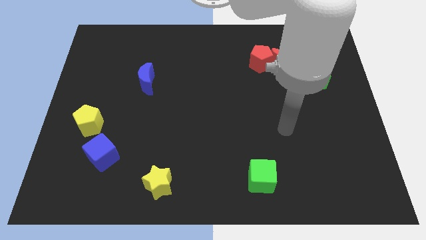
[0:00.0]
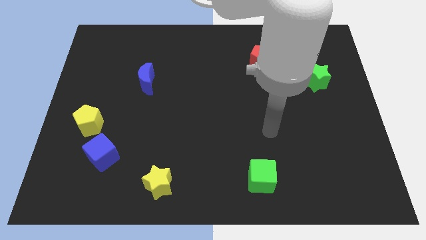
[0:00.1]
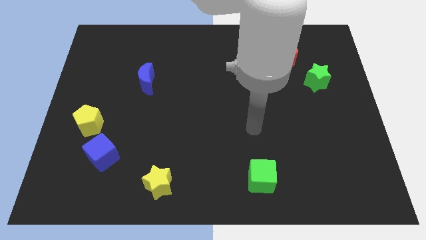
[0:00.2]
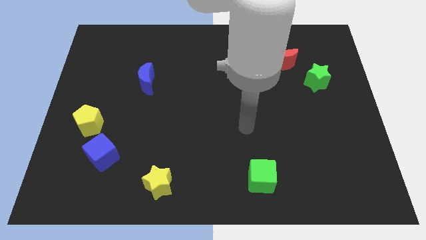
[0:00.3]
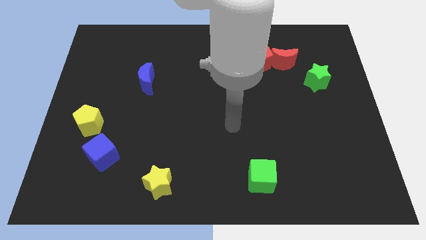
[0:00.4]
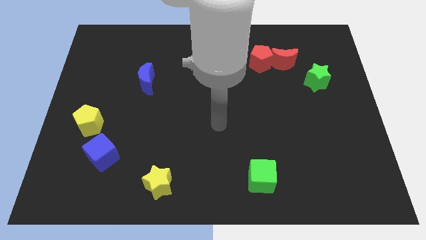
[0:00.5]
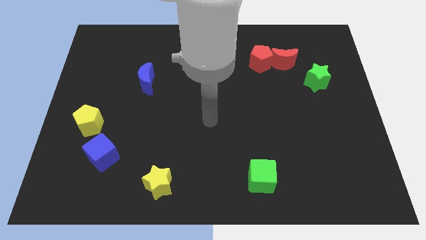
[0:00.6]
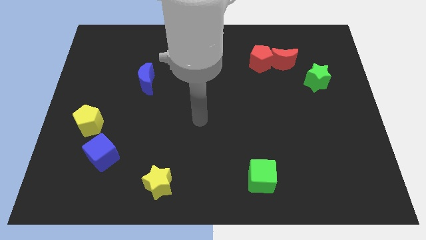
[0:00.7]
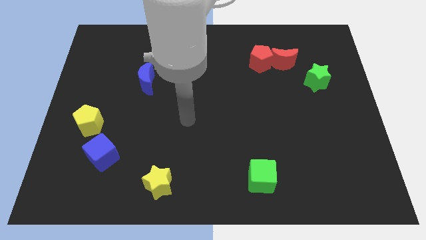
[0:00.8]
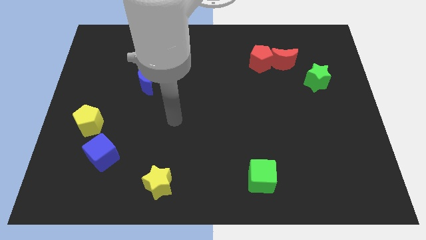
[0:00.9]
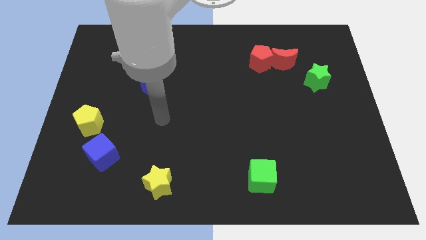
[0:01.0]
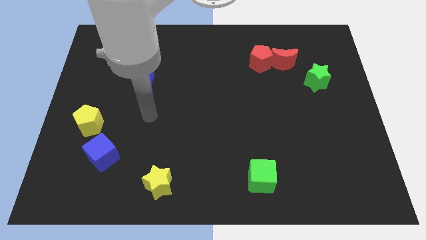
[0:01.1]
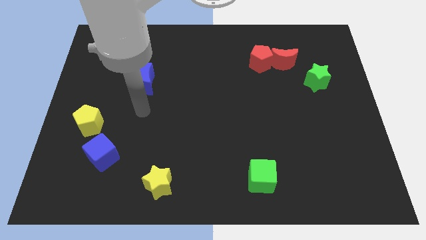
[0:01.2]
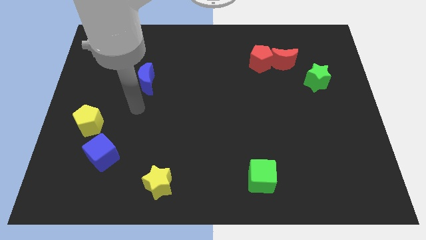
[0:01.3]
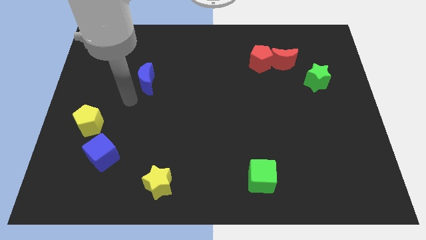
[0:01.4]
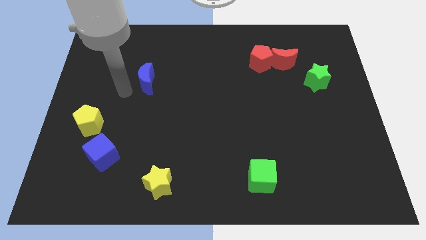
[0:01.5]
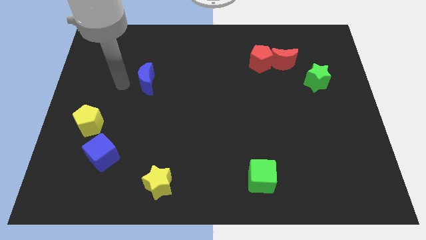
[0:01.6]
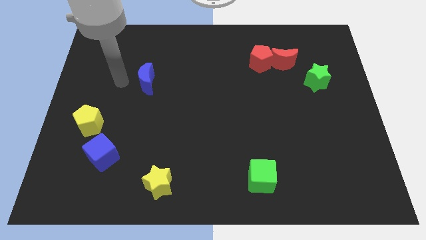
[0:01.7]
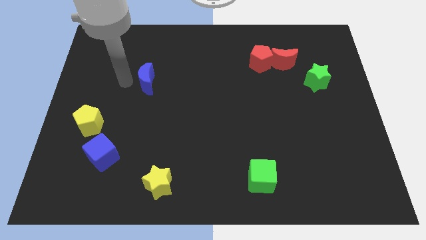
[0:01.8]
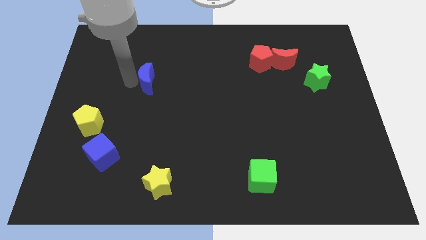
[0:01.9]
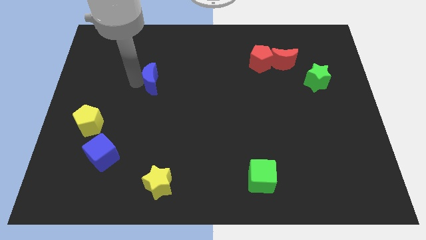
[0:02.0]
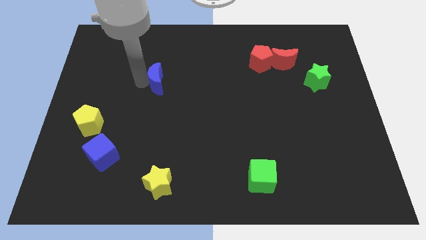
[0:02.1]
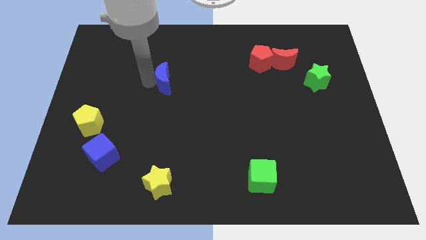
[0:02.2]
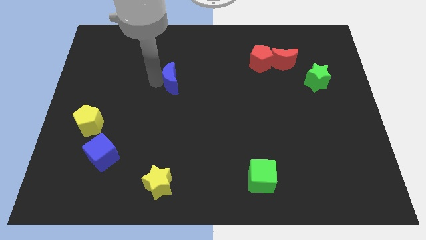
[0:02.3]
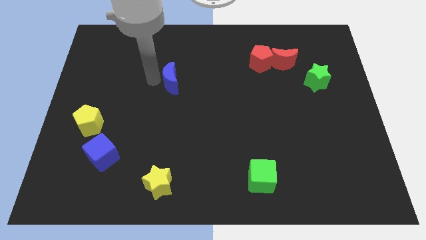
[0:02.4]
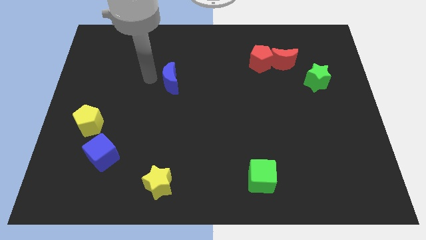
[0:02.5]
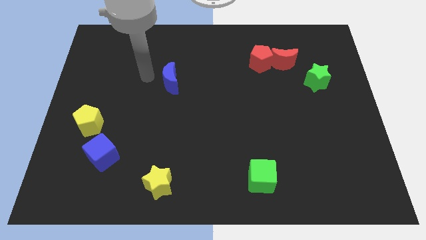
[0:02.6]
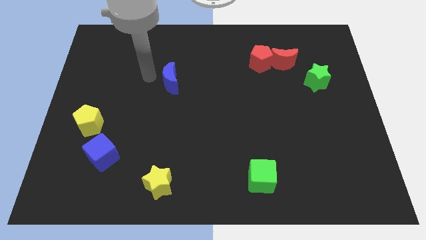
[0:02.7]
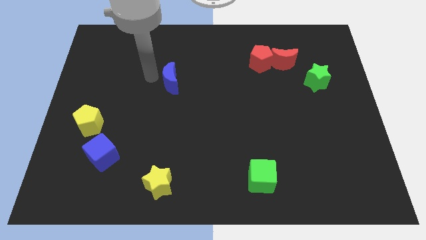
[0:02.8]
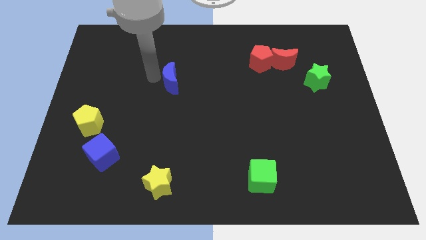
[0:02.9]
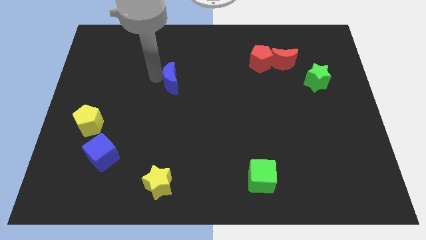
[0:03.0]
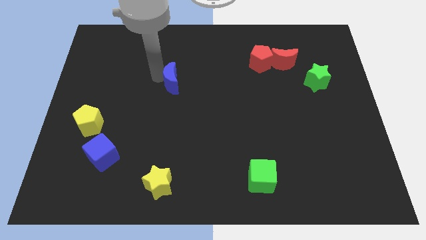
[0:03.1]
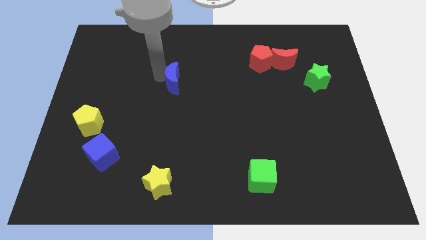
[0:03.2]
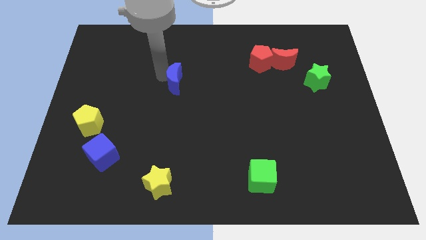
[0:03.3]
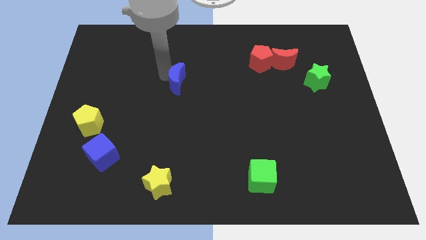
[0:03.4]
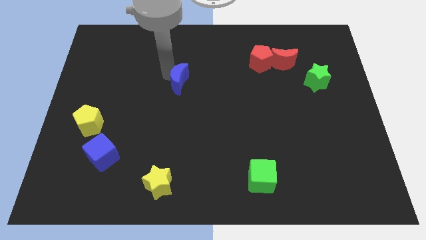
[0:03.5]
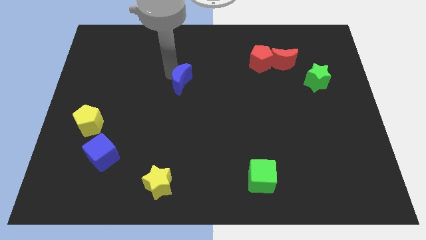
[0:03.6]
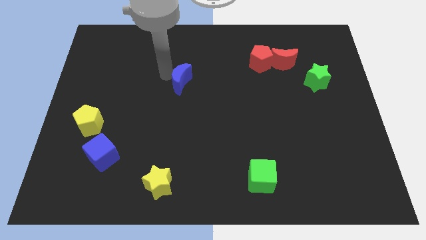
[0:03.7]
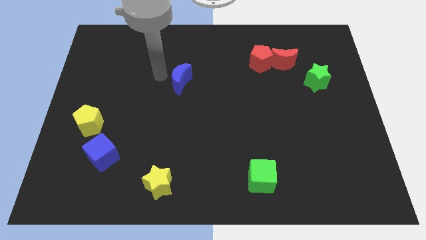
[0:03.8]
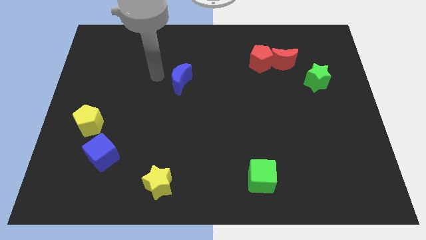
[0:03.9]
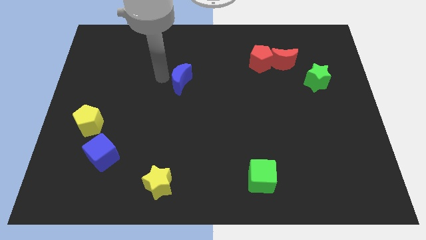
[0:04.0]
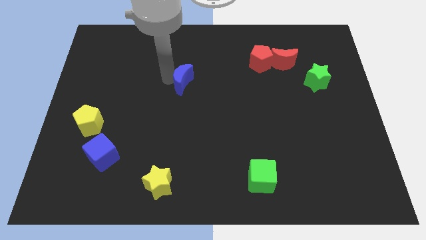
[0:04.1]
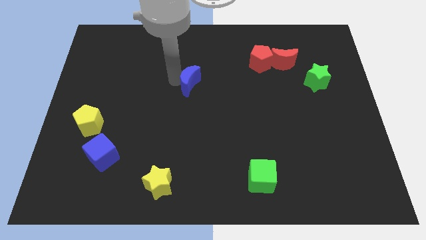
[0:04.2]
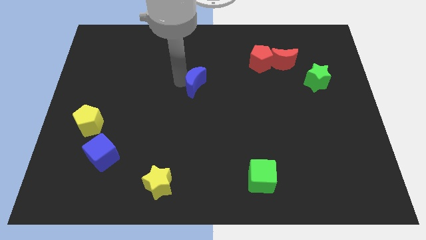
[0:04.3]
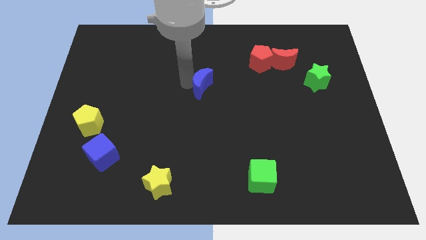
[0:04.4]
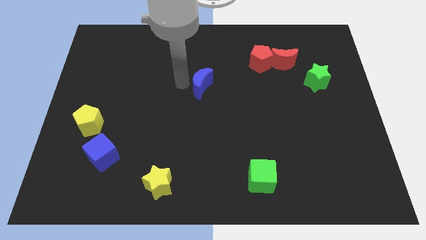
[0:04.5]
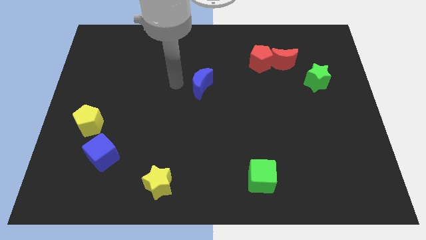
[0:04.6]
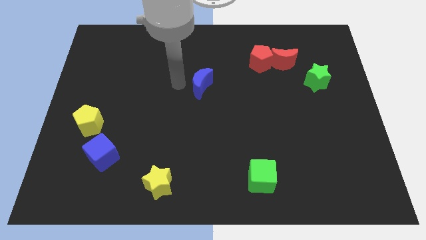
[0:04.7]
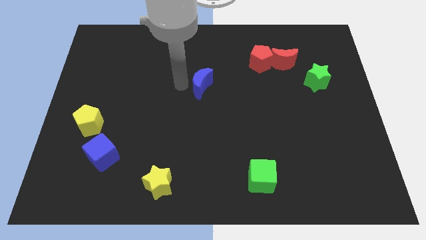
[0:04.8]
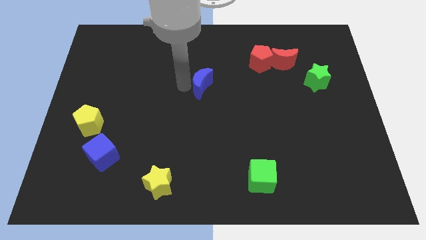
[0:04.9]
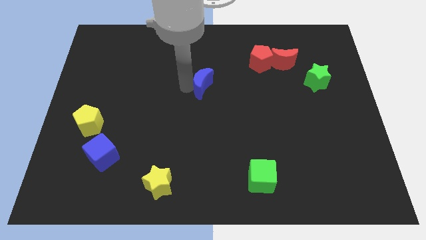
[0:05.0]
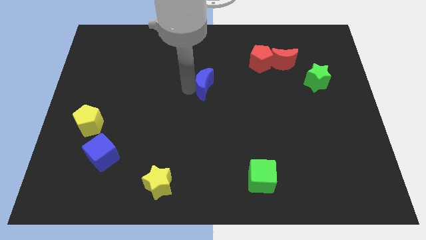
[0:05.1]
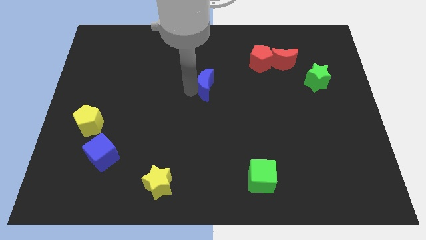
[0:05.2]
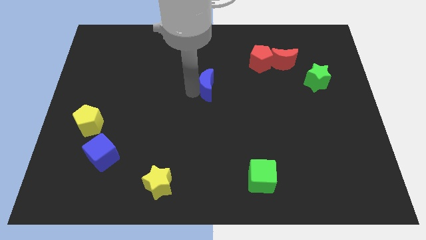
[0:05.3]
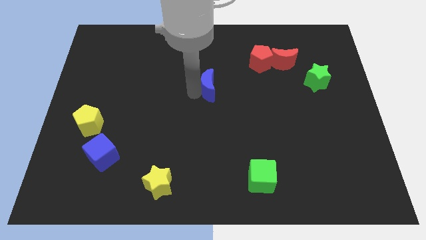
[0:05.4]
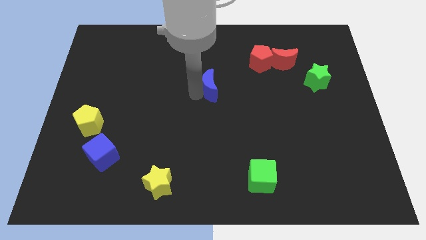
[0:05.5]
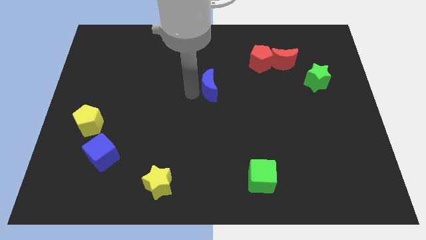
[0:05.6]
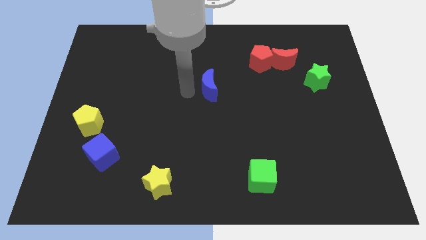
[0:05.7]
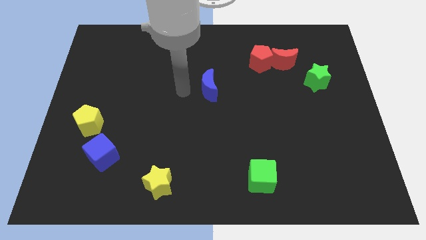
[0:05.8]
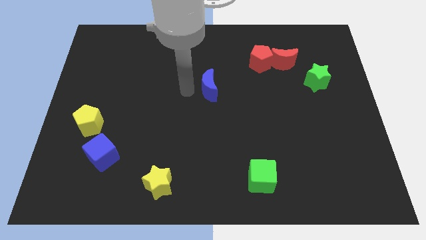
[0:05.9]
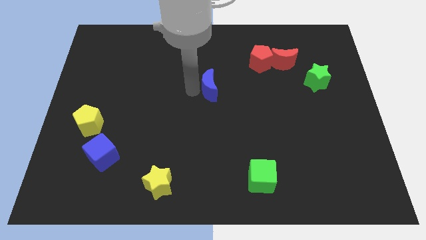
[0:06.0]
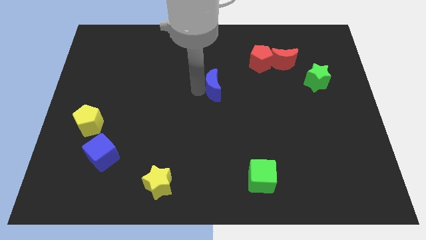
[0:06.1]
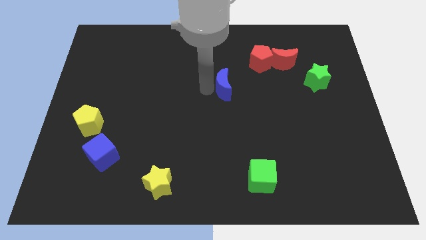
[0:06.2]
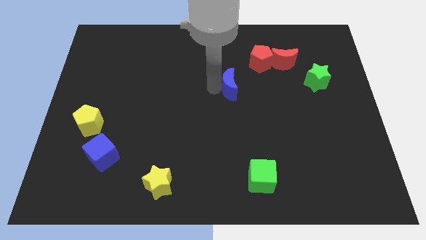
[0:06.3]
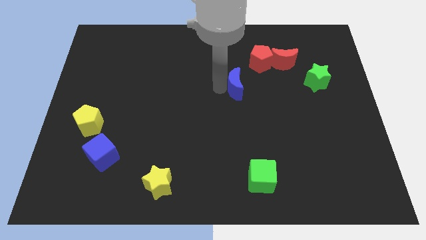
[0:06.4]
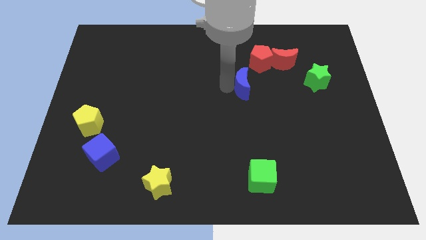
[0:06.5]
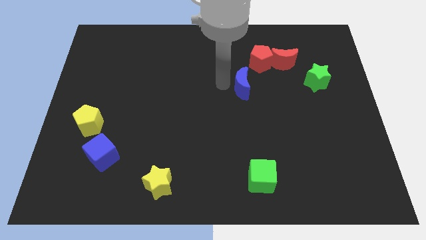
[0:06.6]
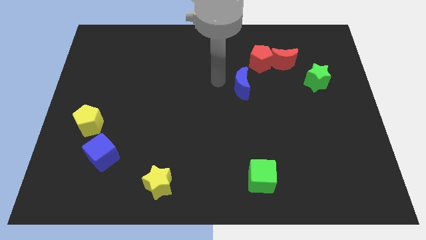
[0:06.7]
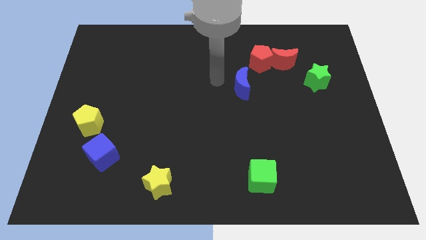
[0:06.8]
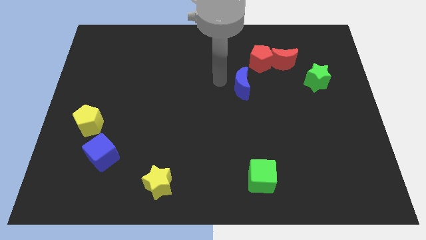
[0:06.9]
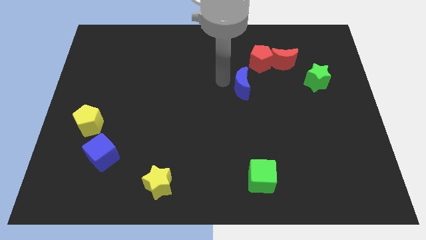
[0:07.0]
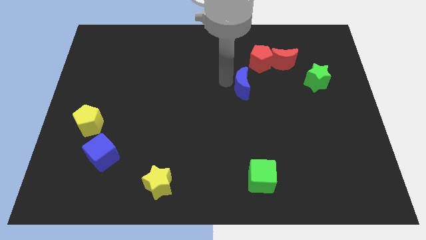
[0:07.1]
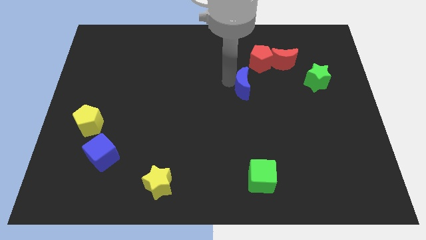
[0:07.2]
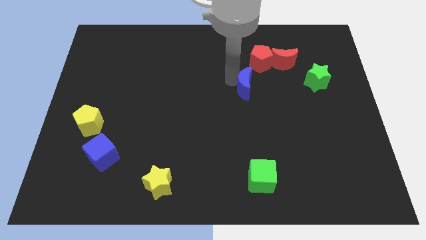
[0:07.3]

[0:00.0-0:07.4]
move the blue moon to the bottom side of the red pentagon
